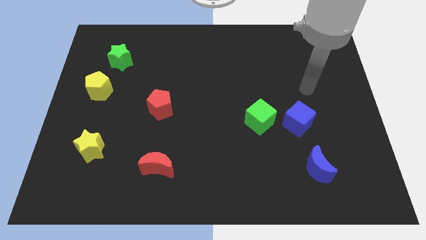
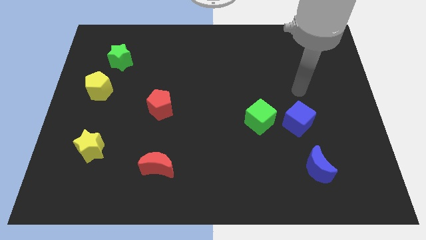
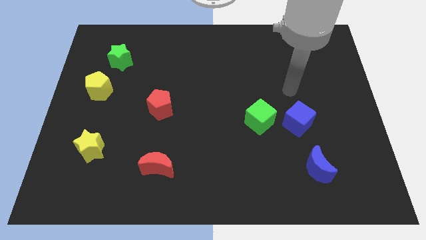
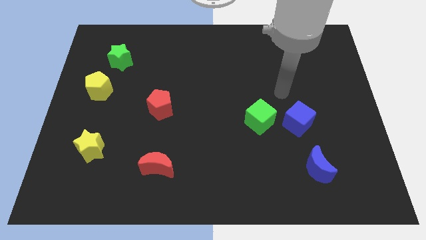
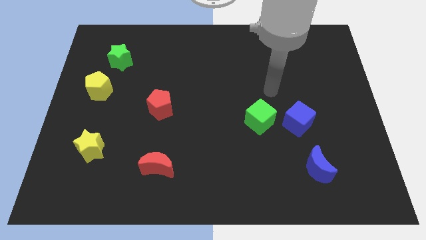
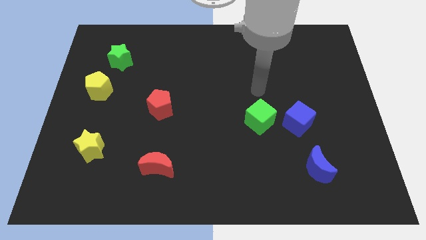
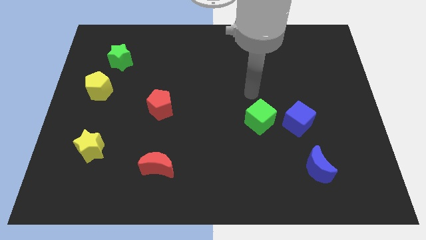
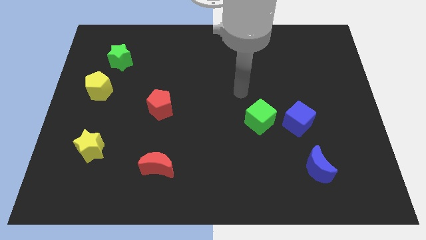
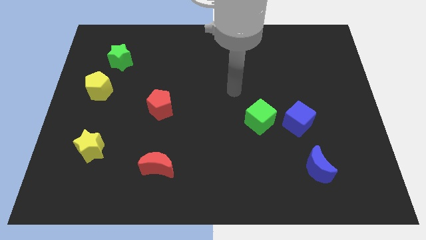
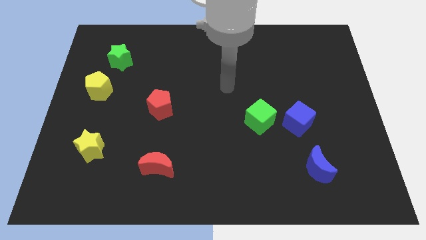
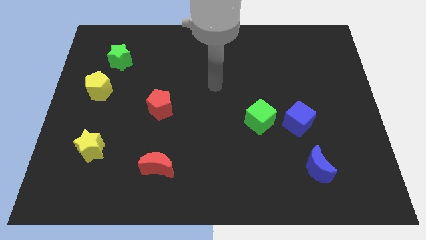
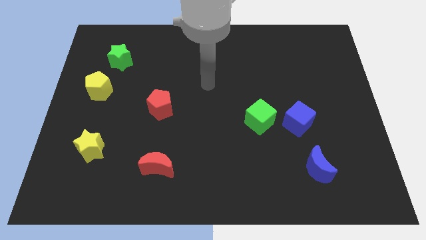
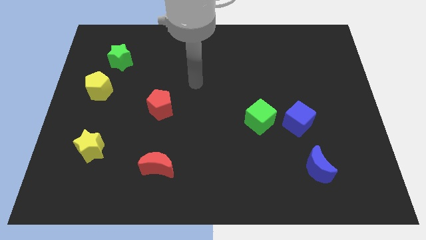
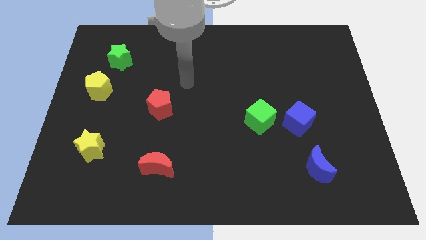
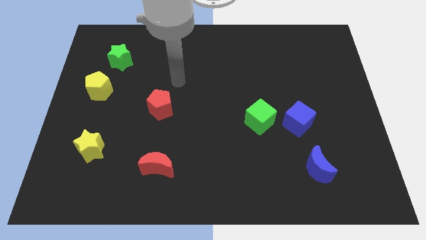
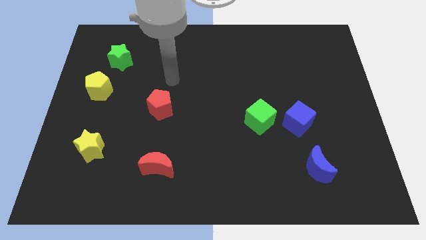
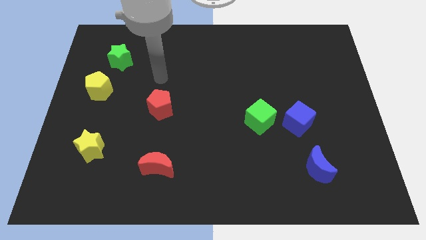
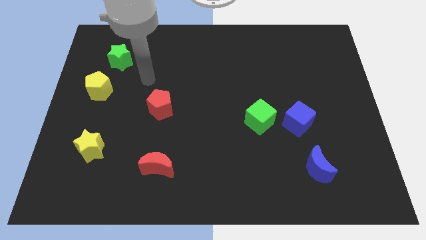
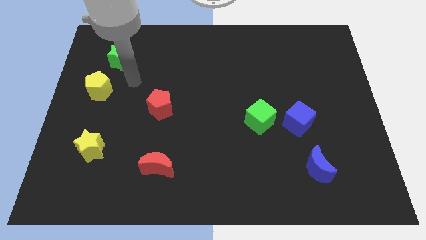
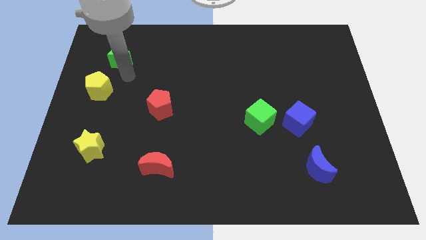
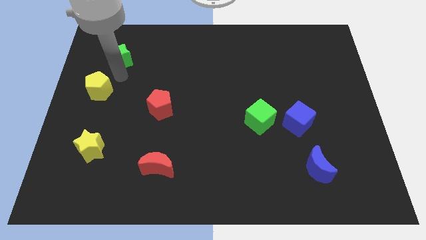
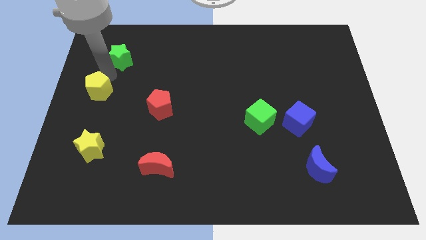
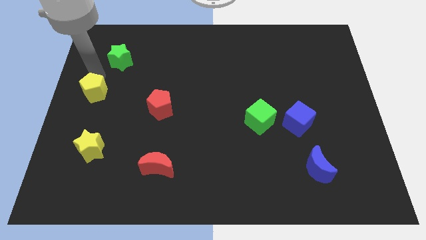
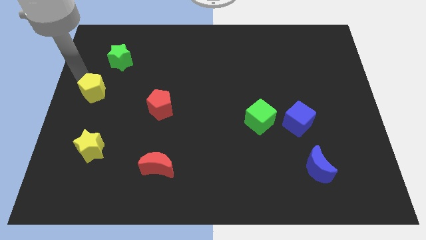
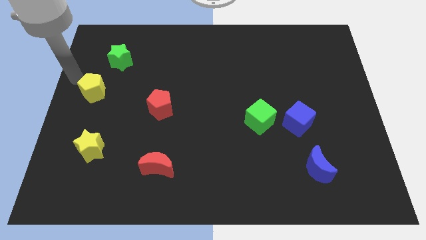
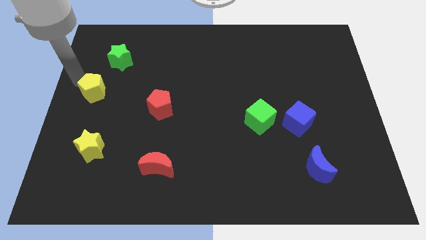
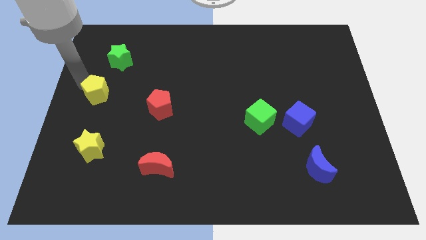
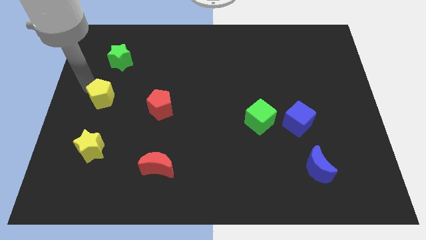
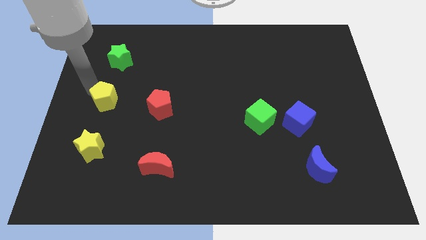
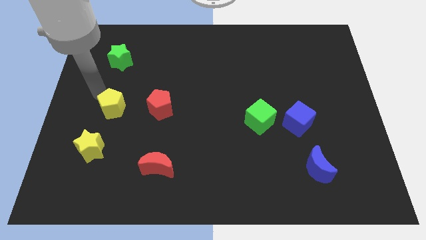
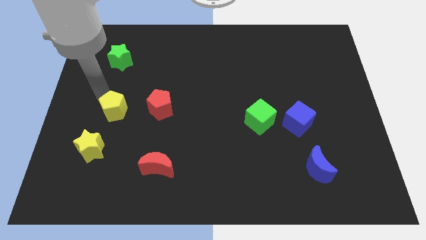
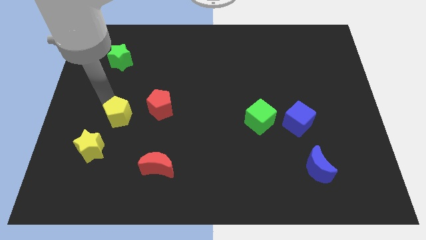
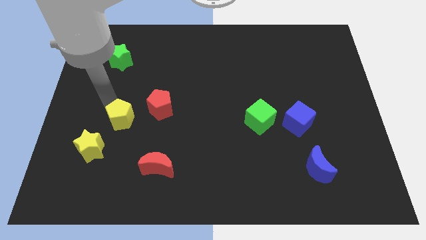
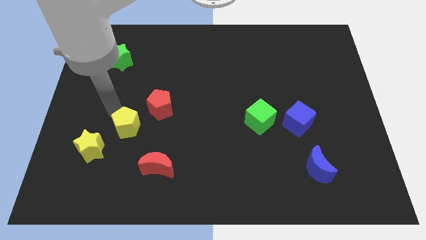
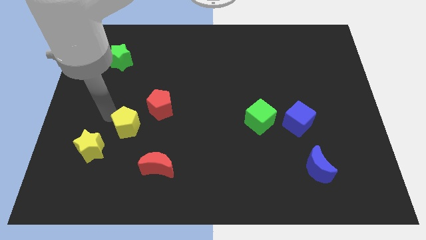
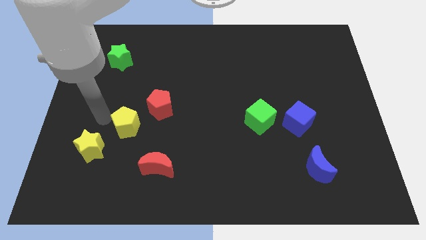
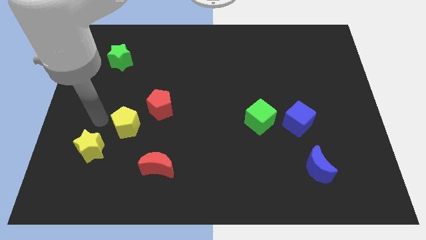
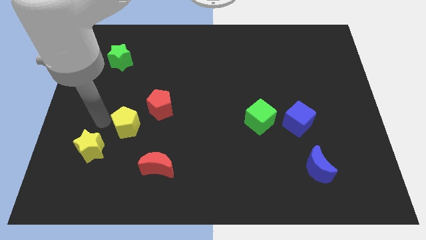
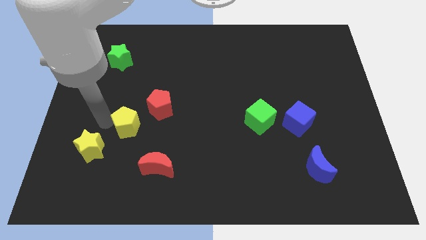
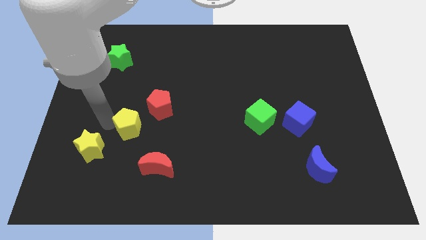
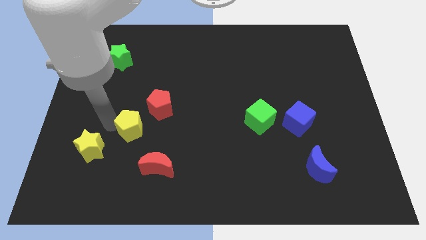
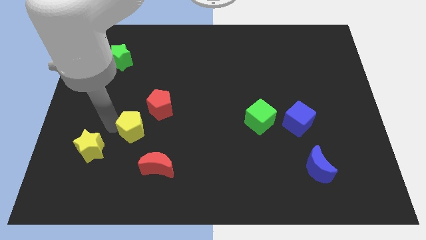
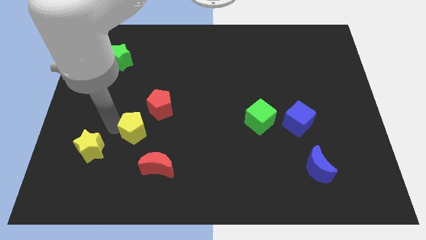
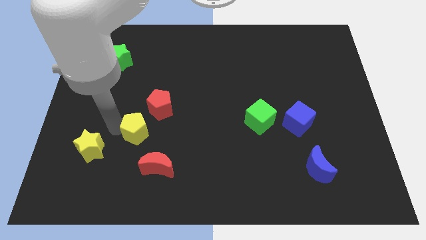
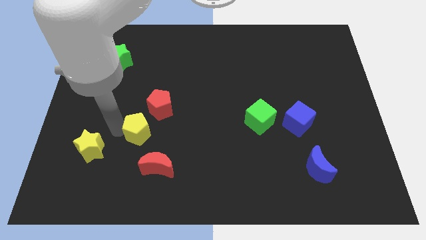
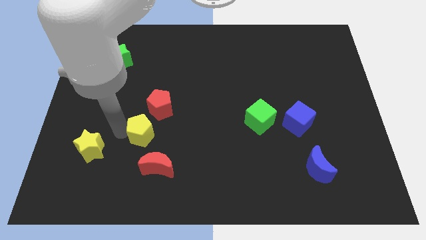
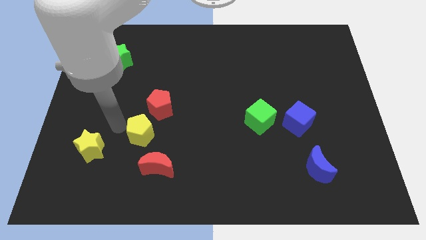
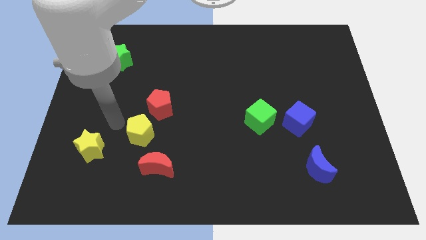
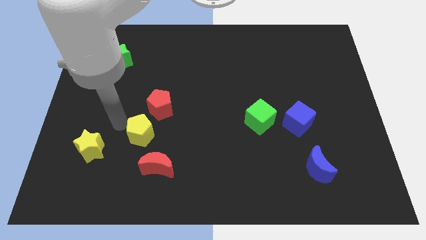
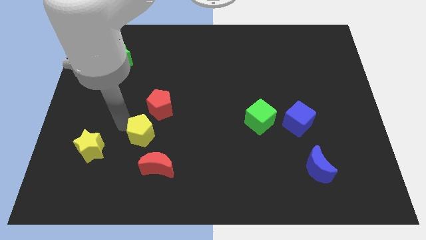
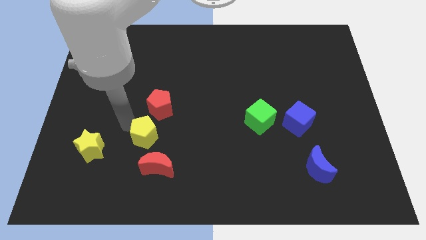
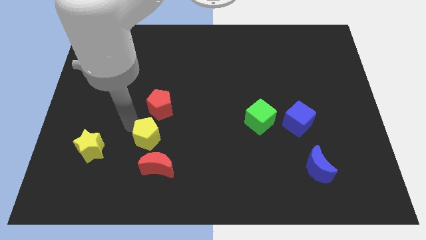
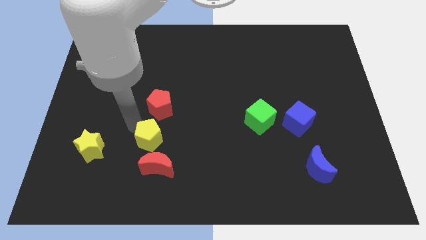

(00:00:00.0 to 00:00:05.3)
push the yellow pentagon downwards and then right

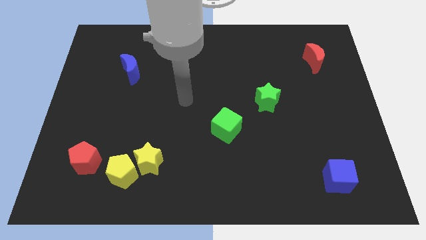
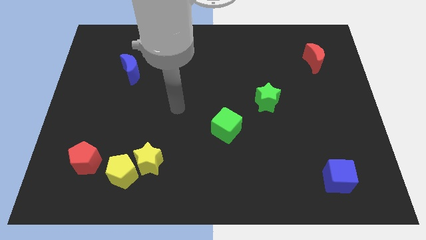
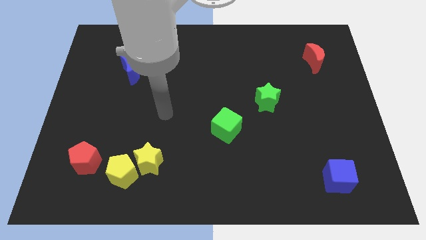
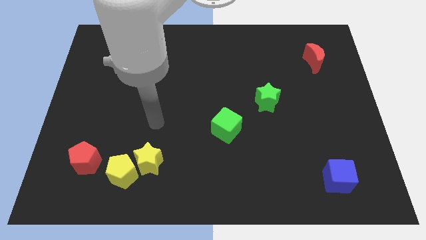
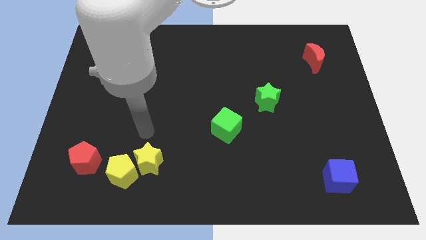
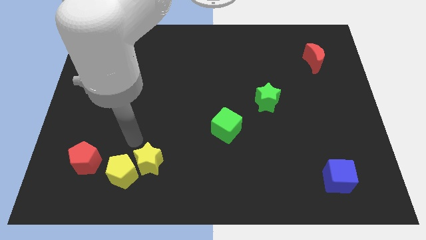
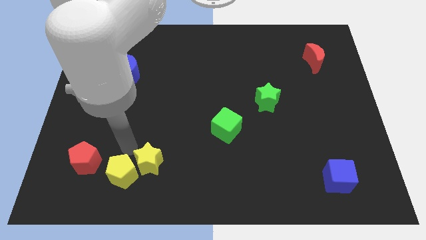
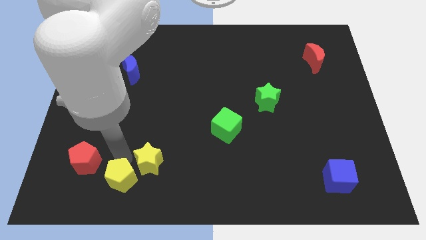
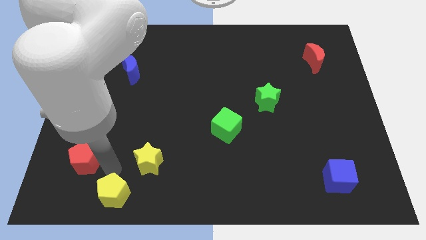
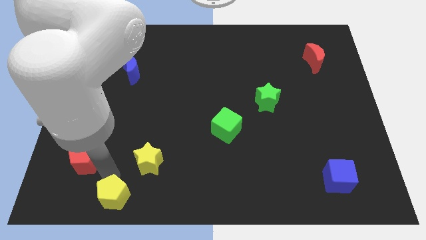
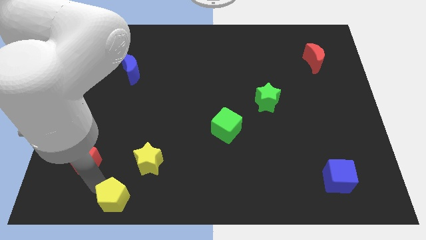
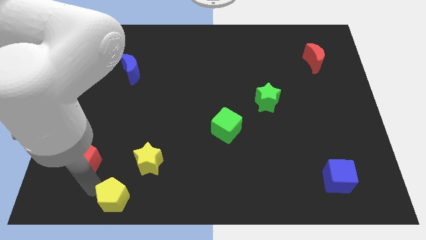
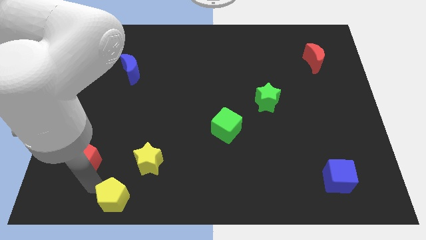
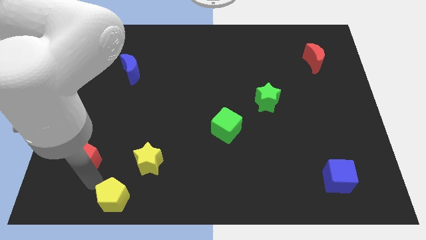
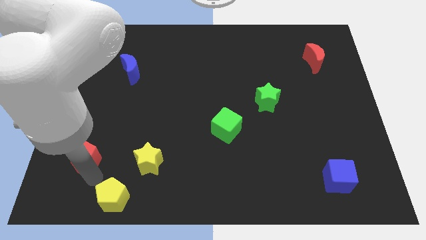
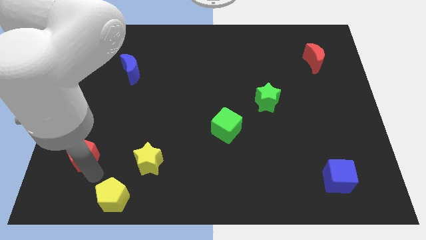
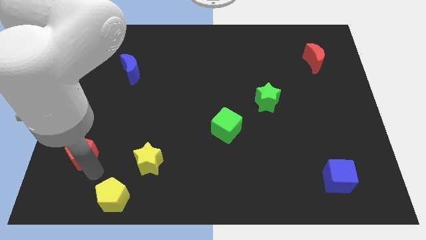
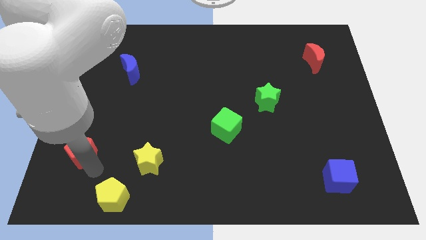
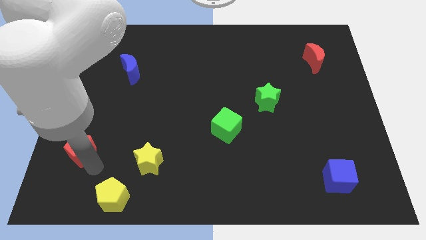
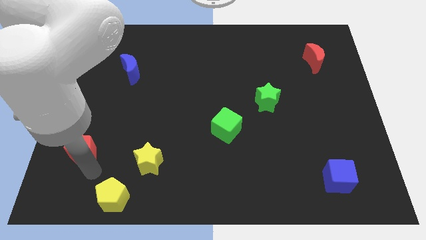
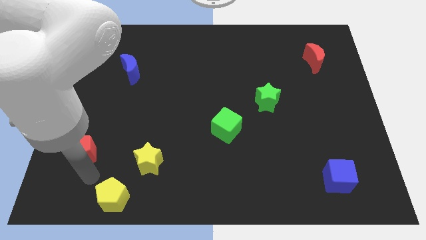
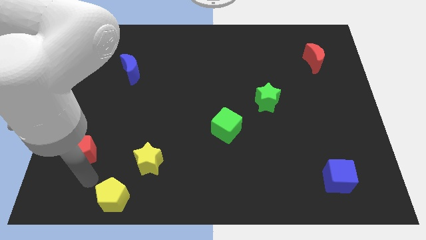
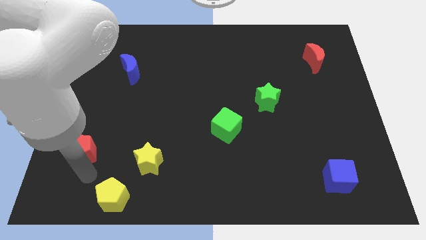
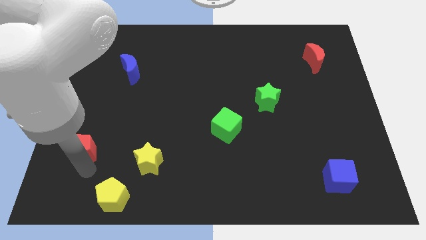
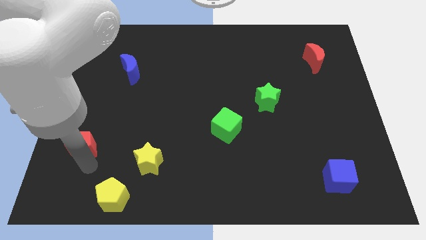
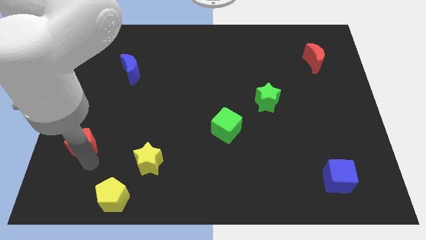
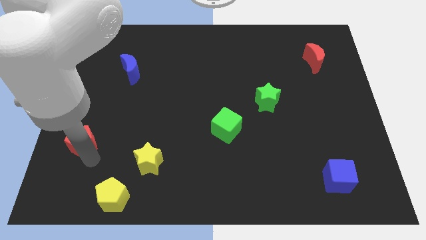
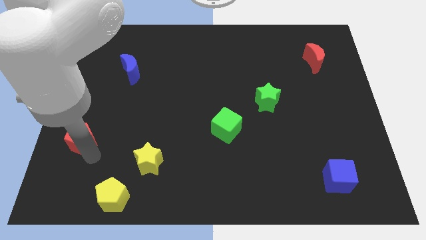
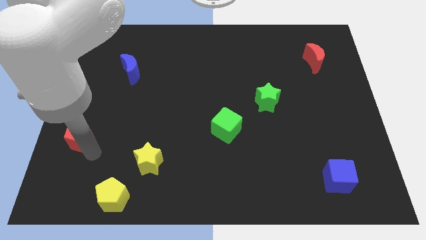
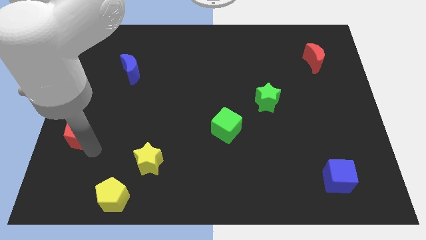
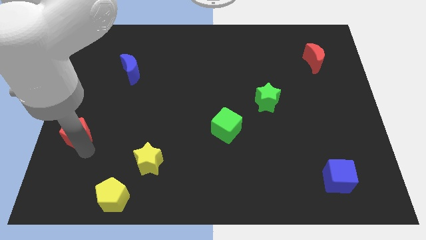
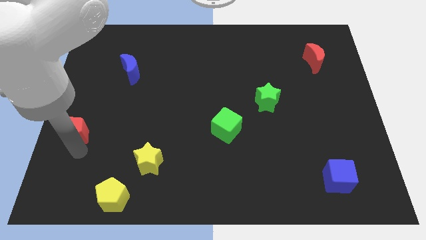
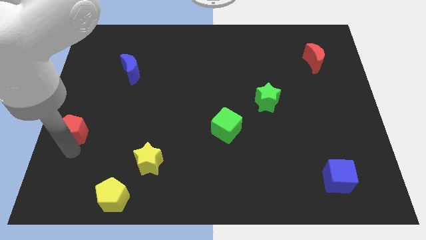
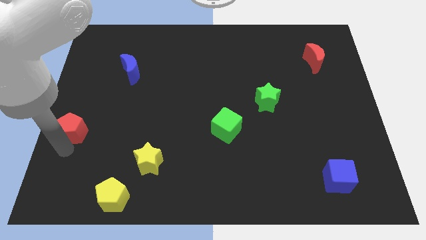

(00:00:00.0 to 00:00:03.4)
move the red pentagon somewhat upwards
